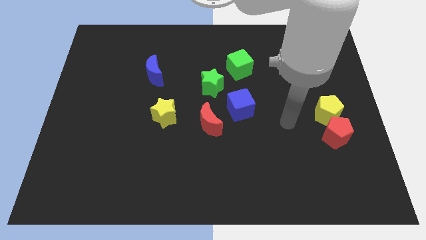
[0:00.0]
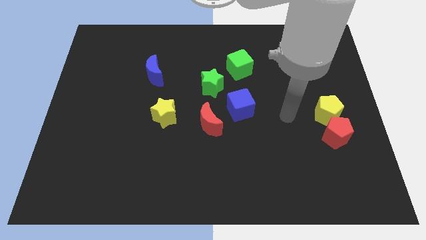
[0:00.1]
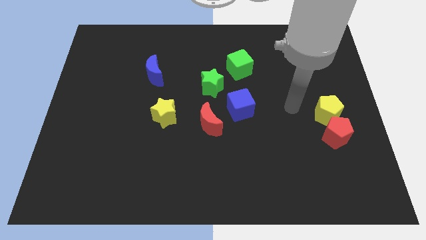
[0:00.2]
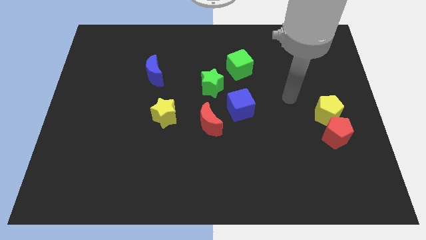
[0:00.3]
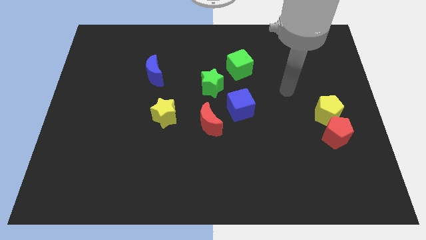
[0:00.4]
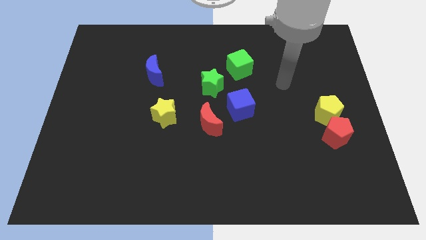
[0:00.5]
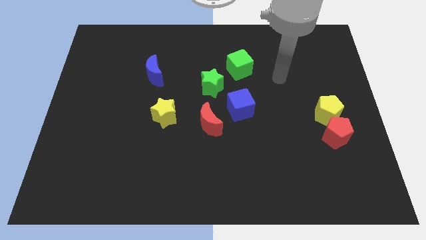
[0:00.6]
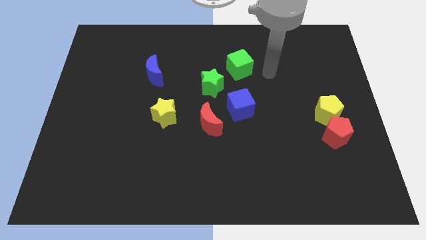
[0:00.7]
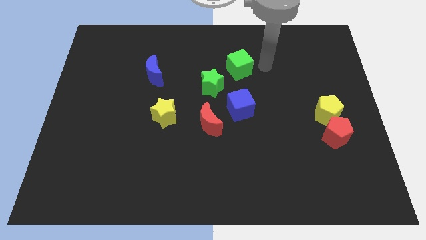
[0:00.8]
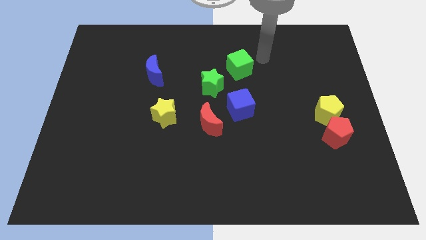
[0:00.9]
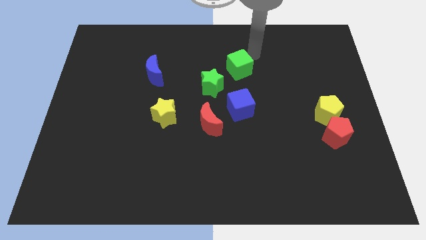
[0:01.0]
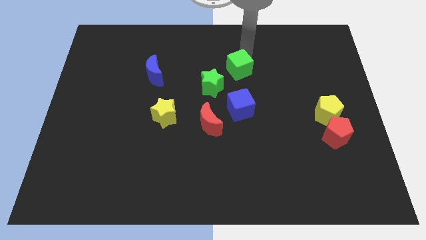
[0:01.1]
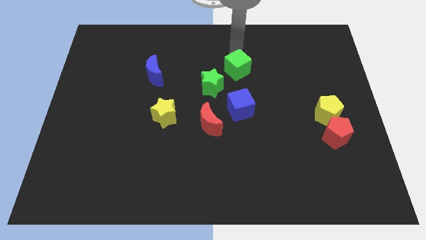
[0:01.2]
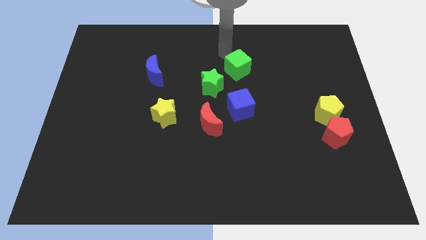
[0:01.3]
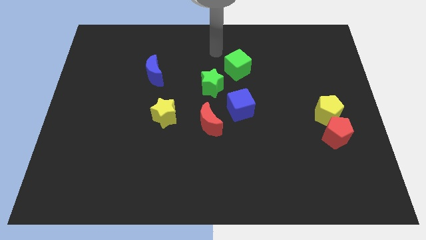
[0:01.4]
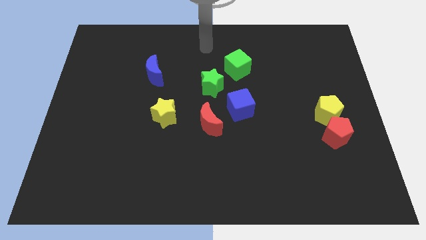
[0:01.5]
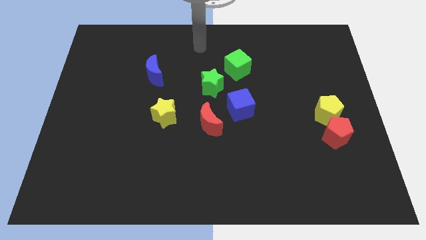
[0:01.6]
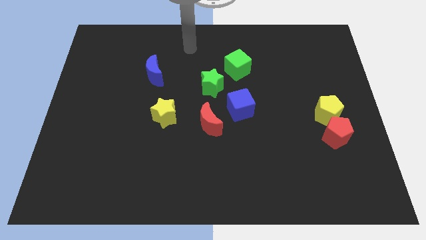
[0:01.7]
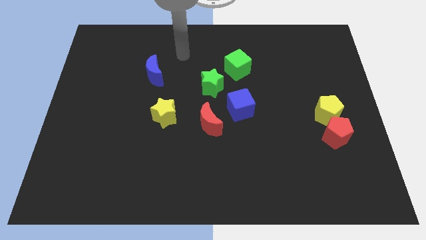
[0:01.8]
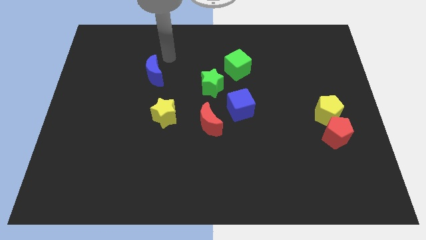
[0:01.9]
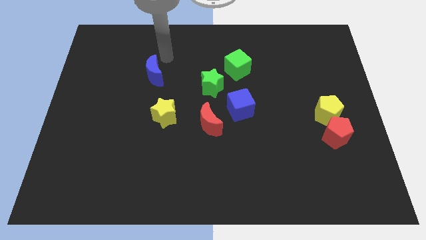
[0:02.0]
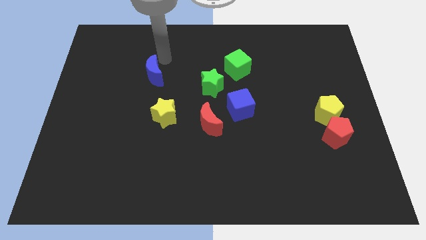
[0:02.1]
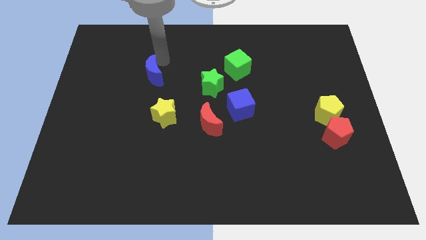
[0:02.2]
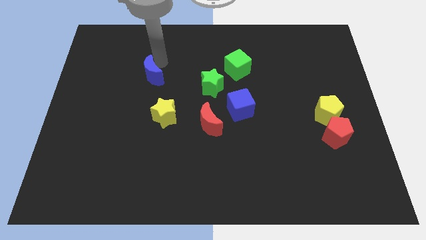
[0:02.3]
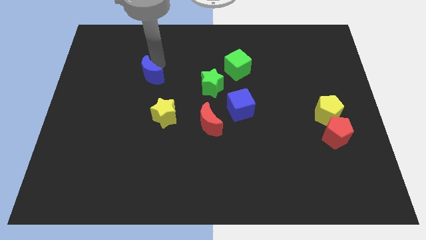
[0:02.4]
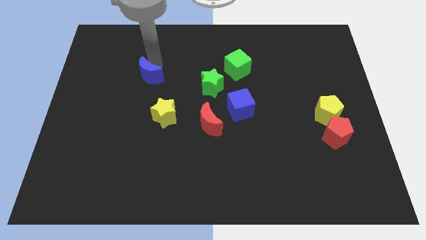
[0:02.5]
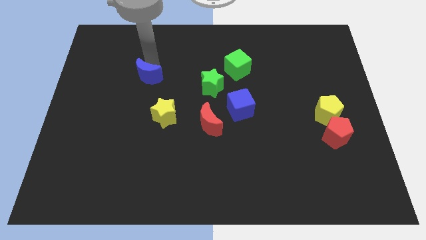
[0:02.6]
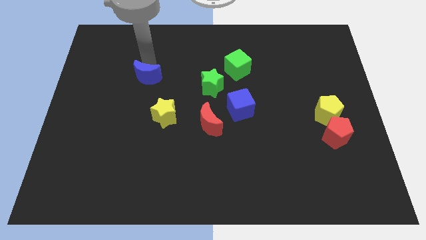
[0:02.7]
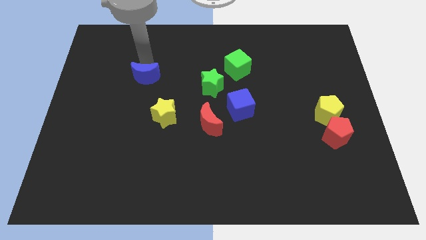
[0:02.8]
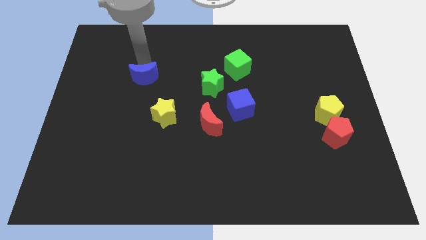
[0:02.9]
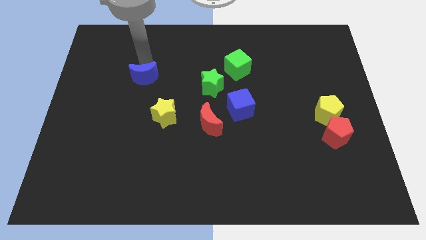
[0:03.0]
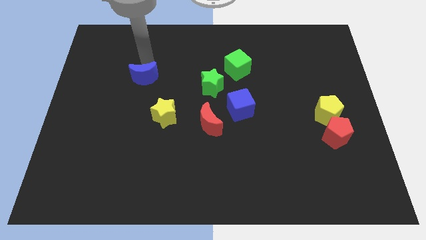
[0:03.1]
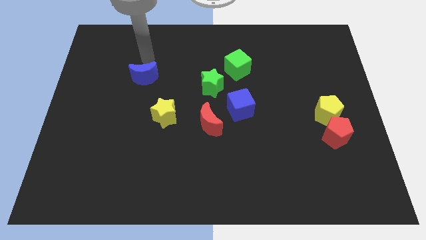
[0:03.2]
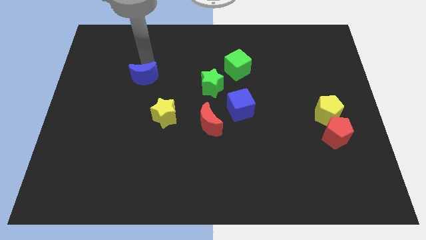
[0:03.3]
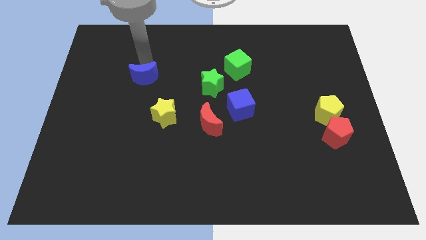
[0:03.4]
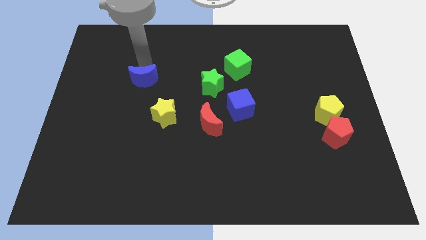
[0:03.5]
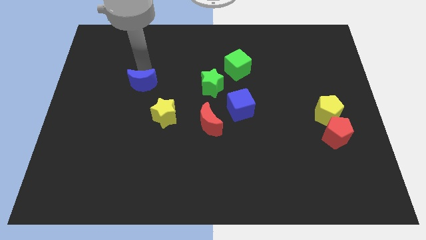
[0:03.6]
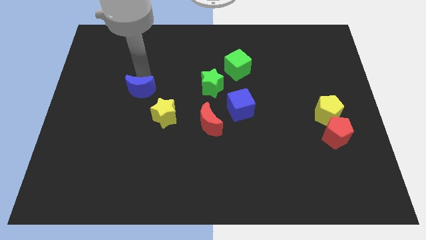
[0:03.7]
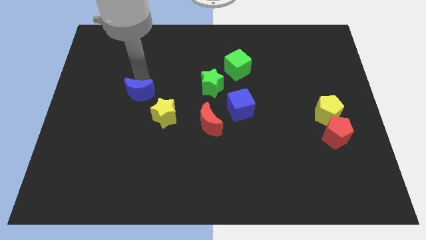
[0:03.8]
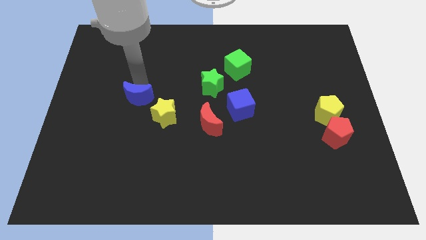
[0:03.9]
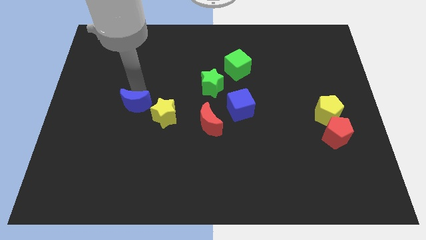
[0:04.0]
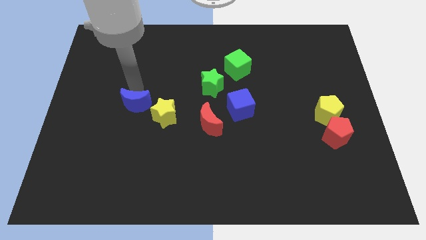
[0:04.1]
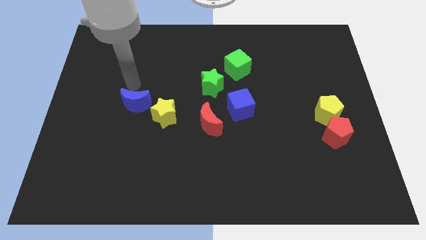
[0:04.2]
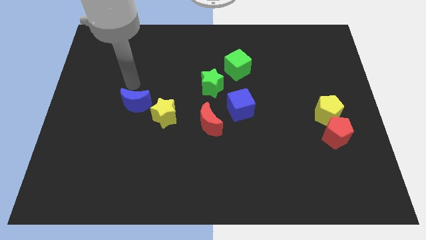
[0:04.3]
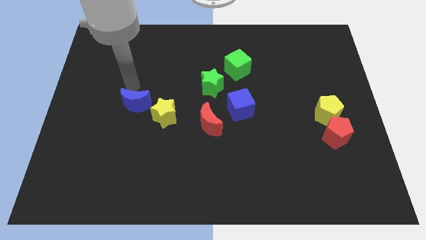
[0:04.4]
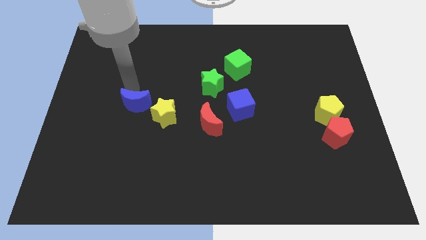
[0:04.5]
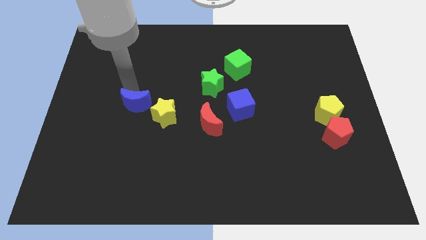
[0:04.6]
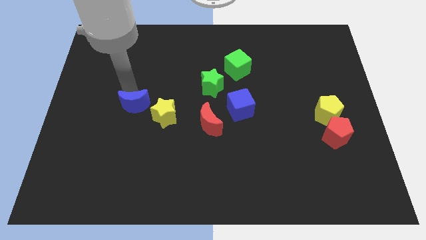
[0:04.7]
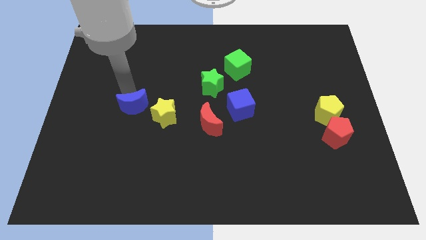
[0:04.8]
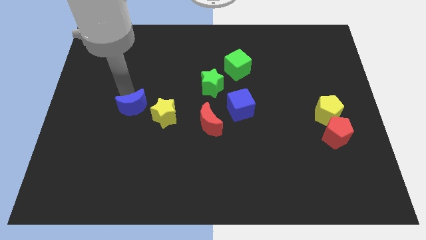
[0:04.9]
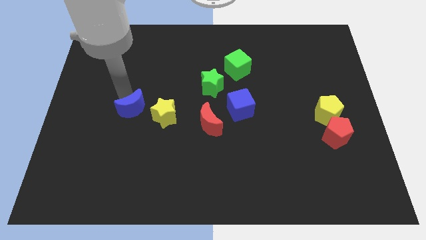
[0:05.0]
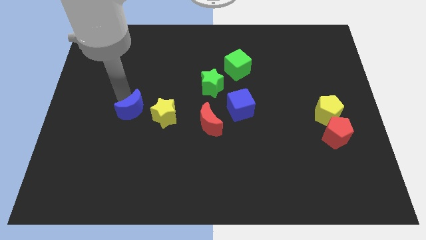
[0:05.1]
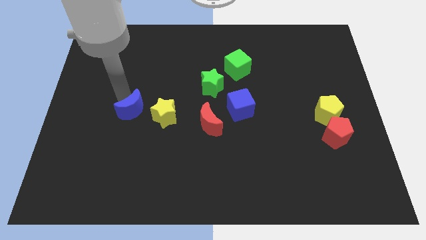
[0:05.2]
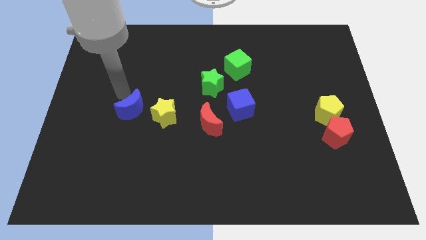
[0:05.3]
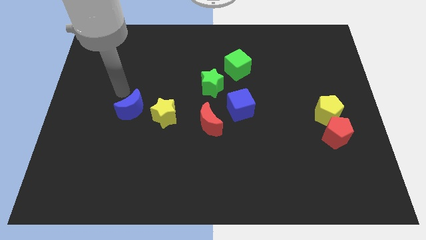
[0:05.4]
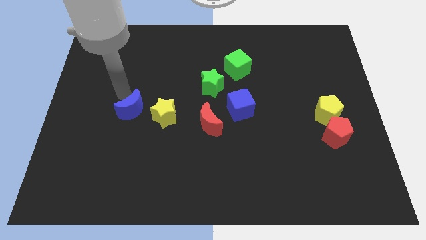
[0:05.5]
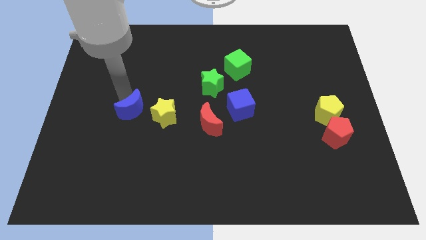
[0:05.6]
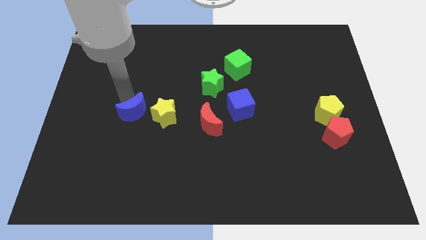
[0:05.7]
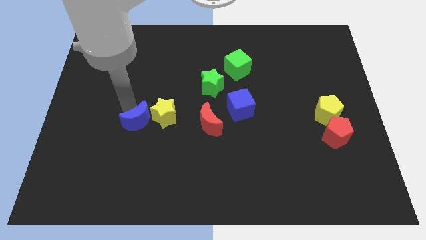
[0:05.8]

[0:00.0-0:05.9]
move the blue moon just left of the red moon
